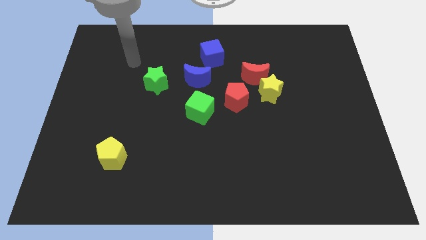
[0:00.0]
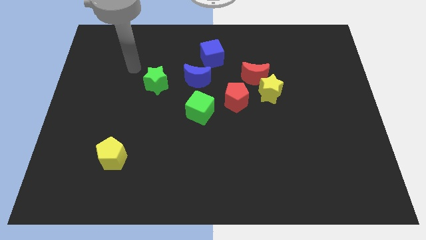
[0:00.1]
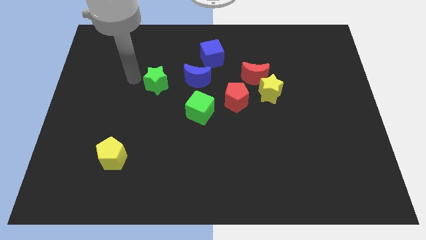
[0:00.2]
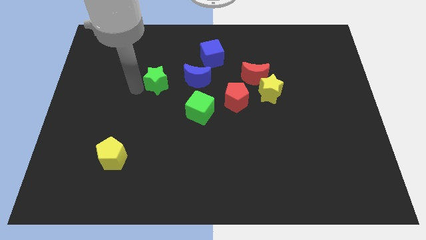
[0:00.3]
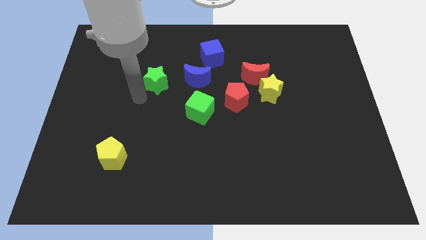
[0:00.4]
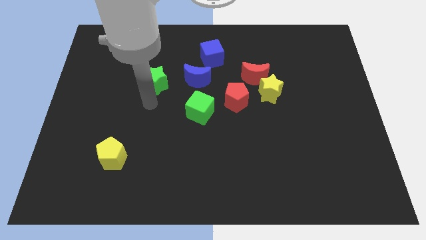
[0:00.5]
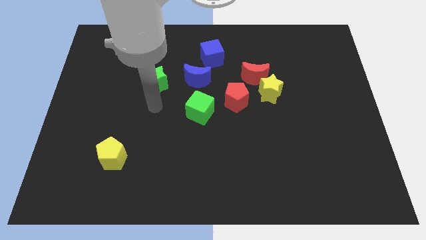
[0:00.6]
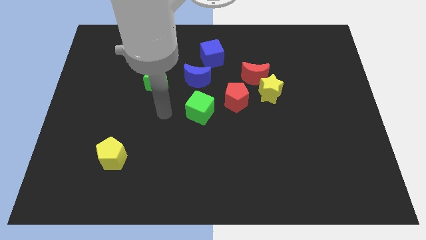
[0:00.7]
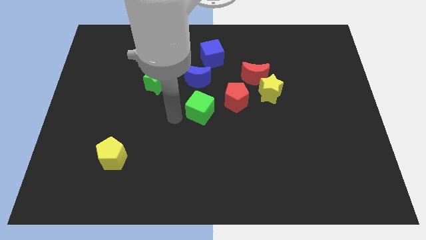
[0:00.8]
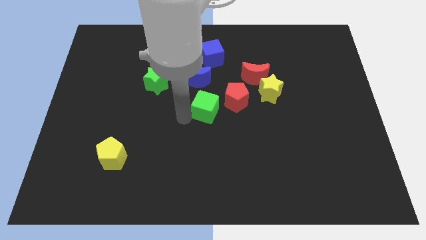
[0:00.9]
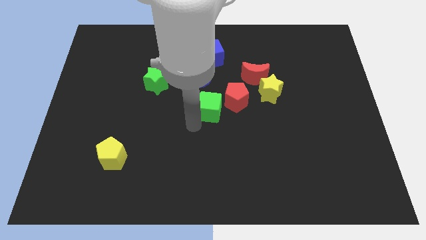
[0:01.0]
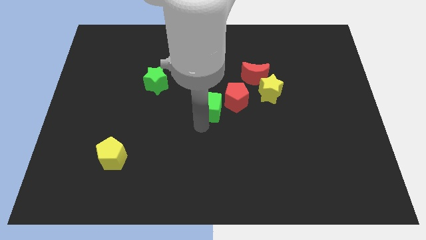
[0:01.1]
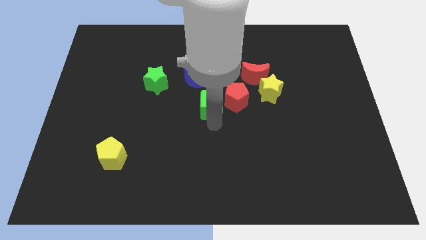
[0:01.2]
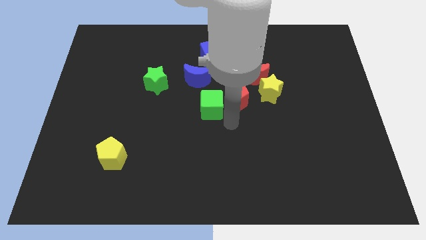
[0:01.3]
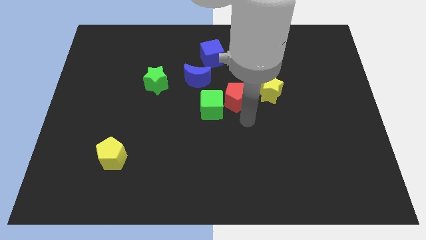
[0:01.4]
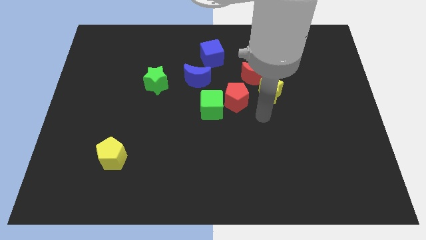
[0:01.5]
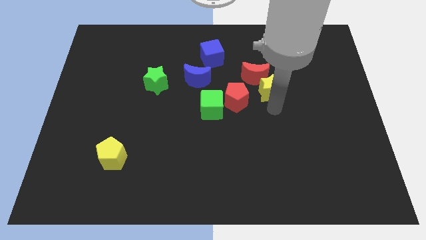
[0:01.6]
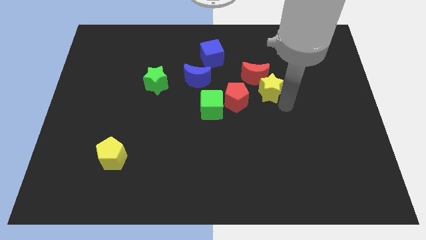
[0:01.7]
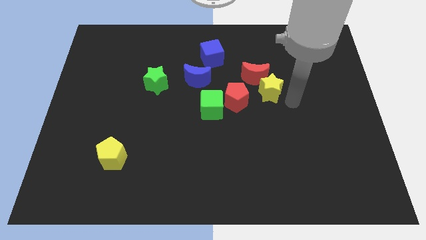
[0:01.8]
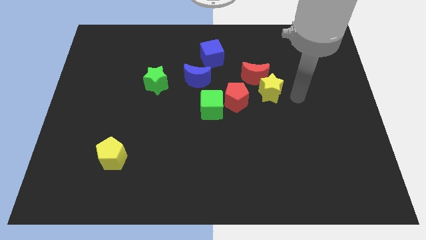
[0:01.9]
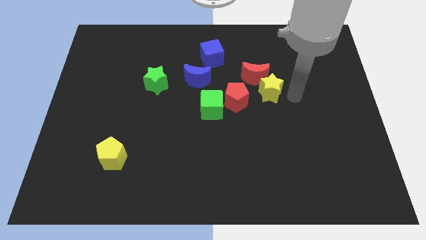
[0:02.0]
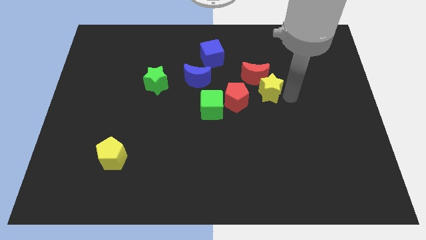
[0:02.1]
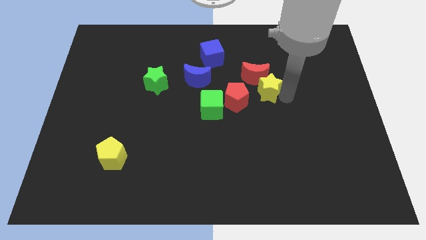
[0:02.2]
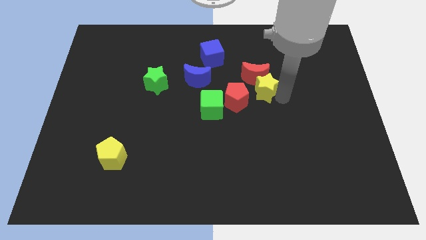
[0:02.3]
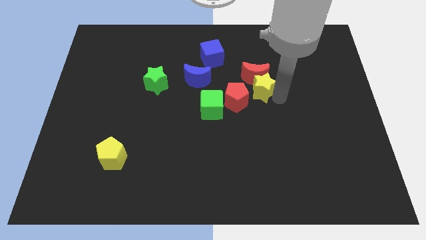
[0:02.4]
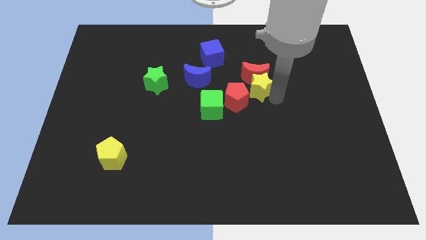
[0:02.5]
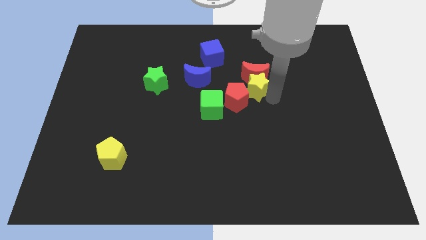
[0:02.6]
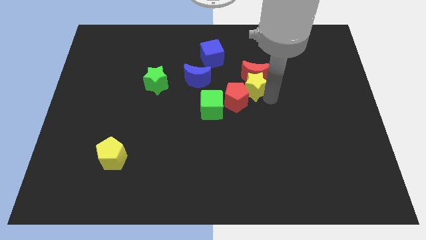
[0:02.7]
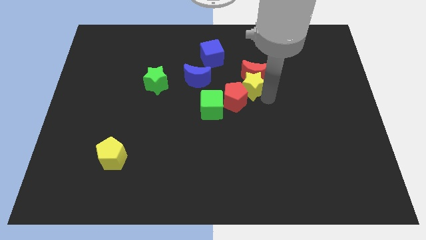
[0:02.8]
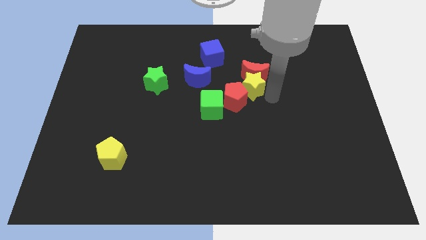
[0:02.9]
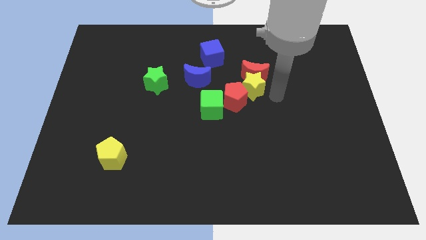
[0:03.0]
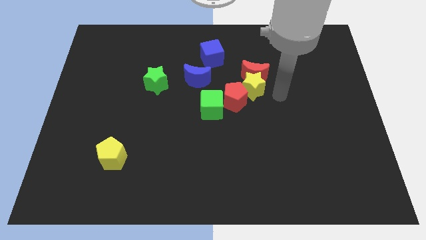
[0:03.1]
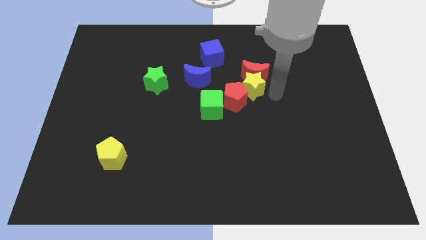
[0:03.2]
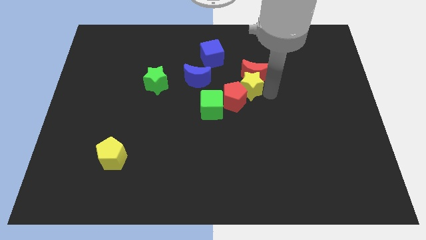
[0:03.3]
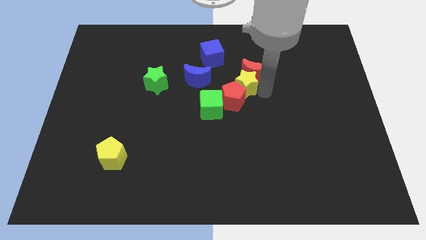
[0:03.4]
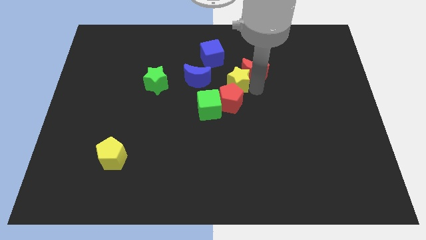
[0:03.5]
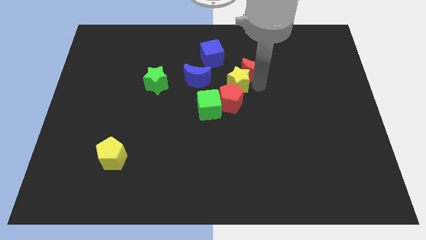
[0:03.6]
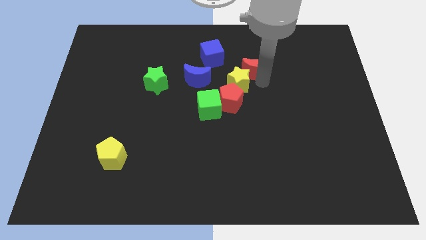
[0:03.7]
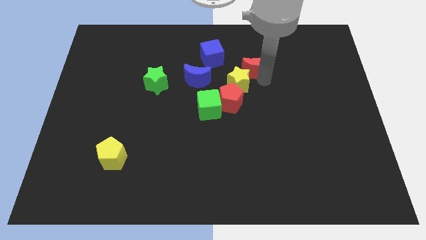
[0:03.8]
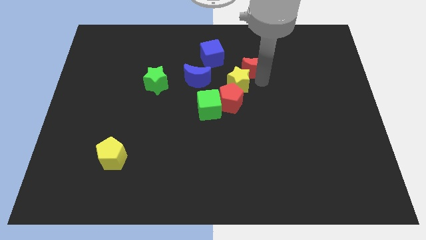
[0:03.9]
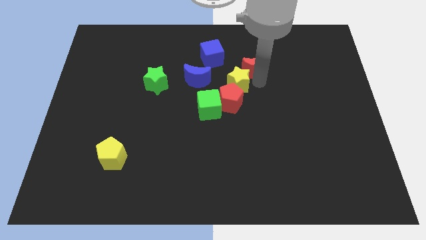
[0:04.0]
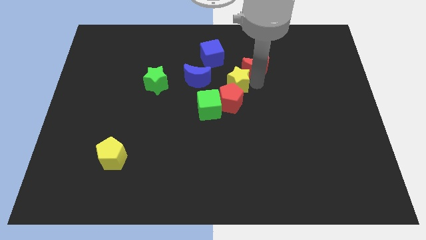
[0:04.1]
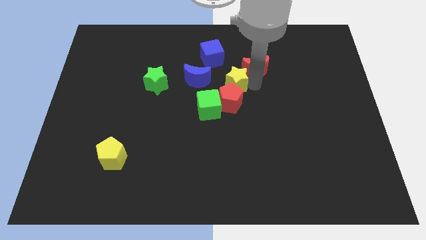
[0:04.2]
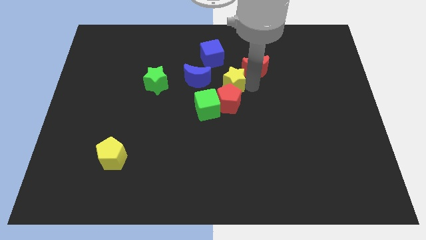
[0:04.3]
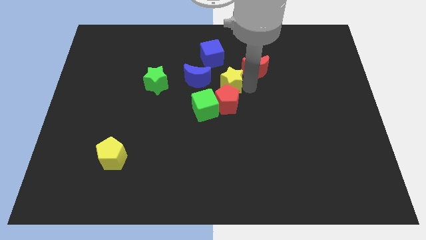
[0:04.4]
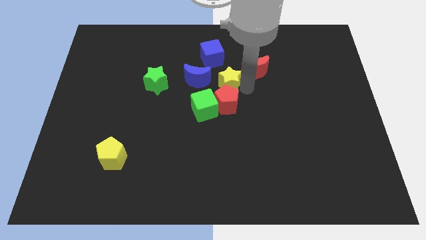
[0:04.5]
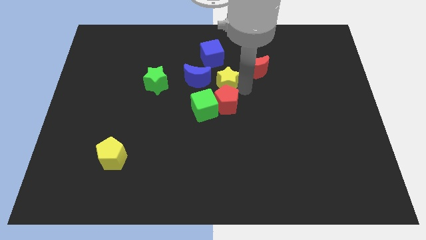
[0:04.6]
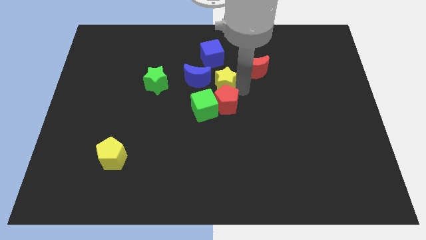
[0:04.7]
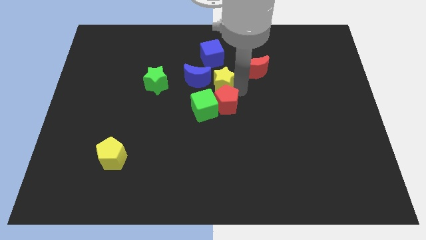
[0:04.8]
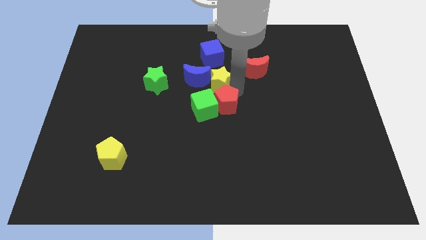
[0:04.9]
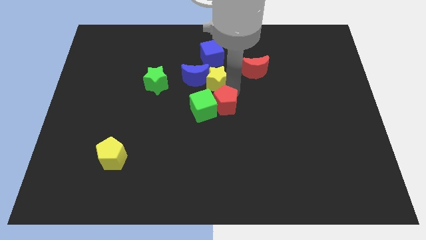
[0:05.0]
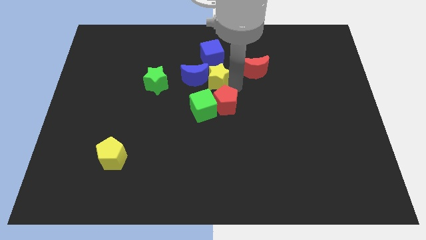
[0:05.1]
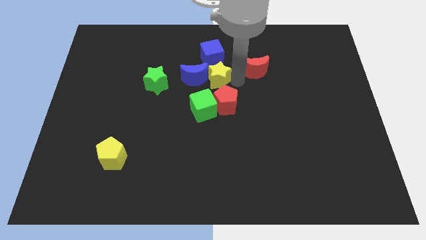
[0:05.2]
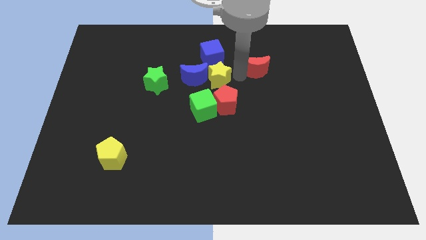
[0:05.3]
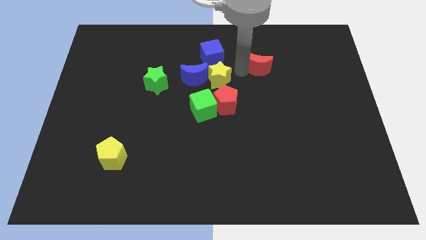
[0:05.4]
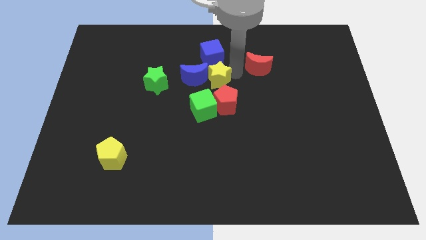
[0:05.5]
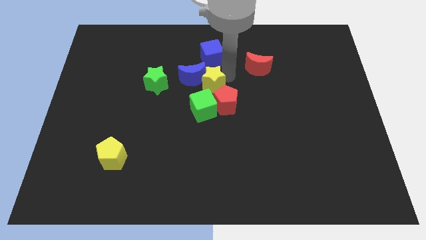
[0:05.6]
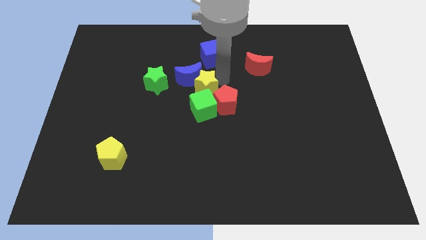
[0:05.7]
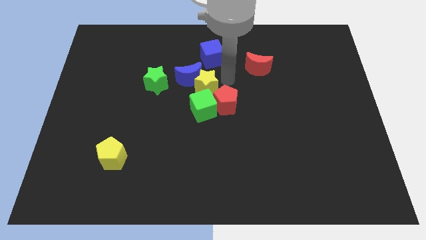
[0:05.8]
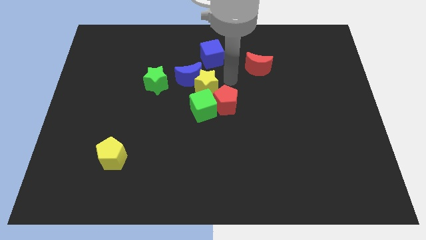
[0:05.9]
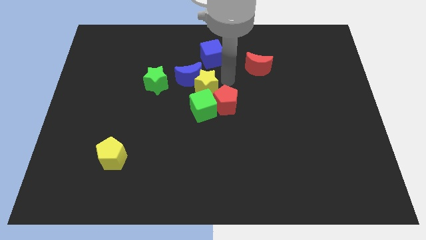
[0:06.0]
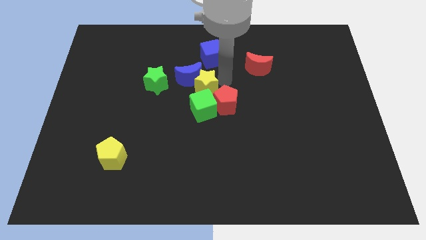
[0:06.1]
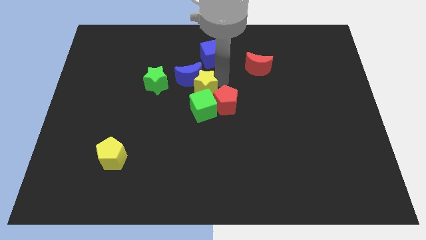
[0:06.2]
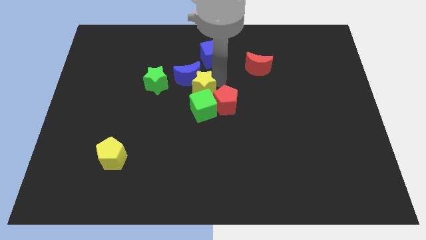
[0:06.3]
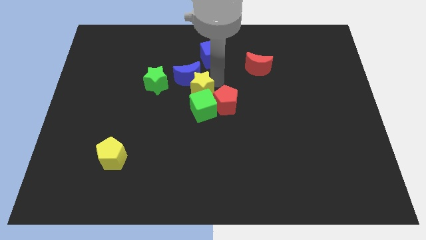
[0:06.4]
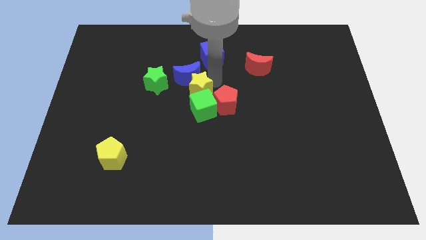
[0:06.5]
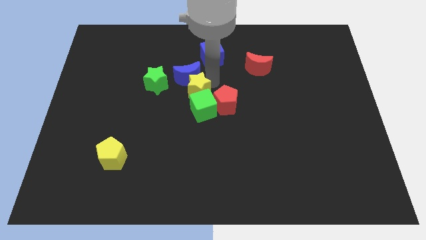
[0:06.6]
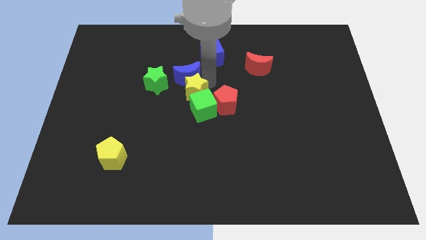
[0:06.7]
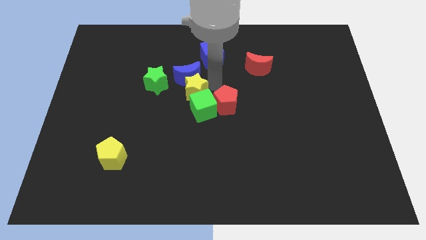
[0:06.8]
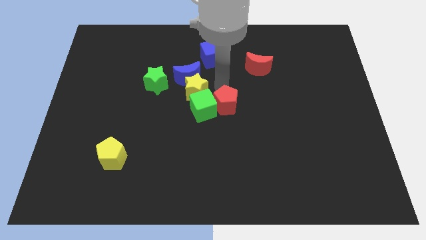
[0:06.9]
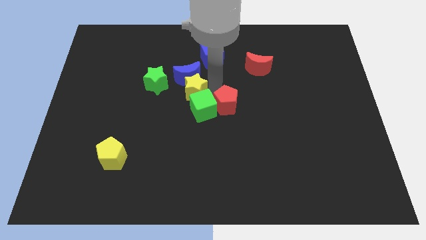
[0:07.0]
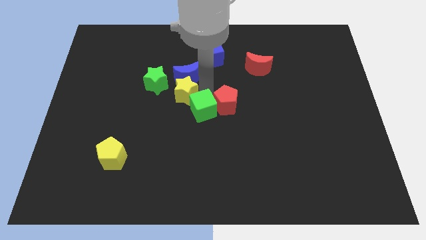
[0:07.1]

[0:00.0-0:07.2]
slide the yellow star to the left

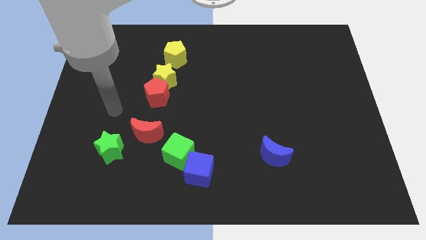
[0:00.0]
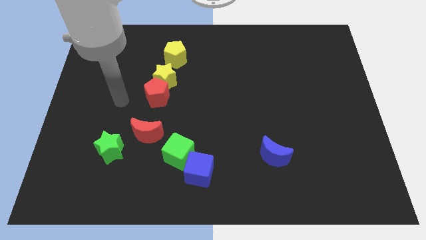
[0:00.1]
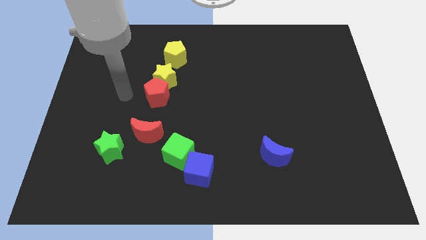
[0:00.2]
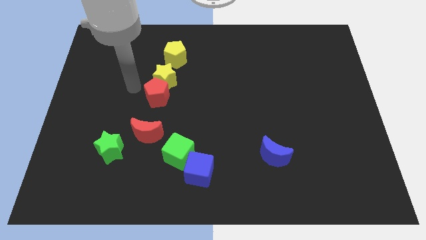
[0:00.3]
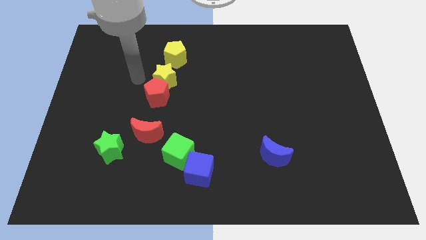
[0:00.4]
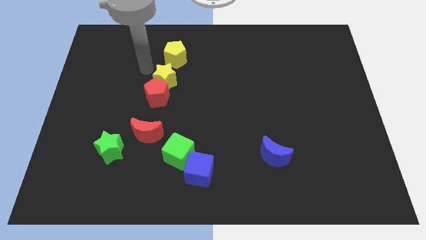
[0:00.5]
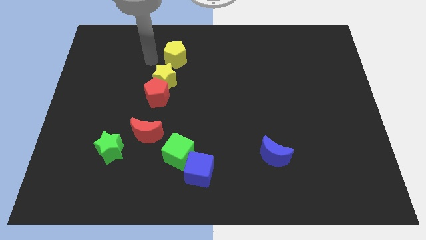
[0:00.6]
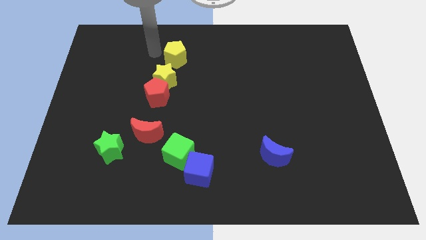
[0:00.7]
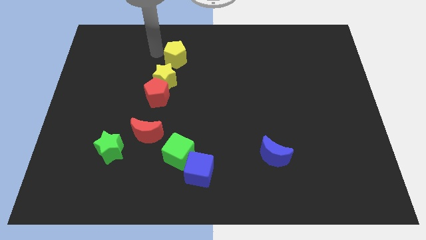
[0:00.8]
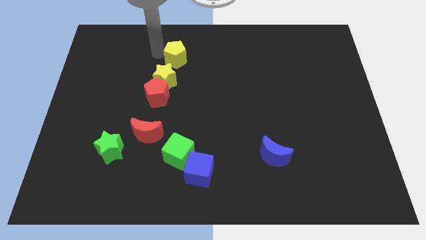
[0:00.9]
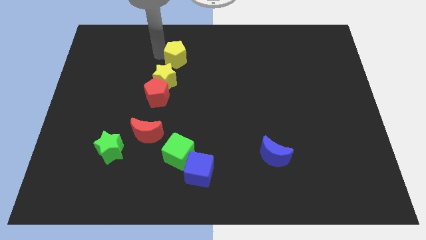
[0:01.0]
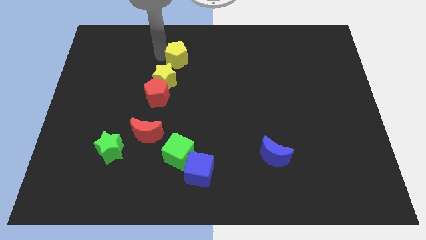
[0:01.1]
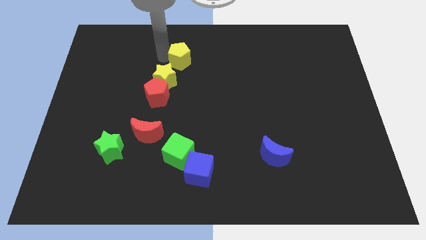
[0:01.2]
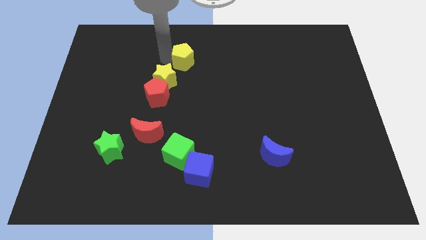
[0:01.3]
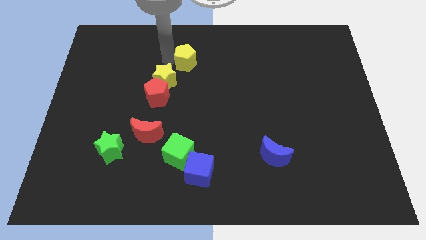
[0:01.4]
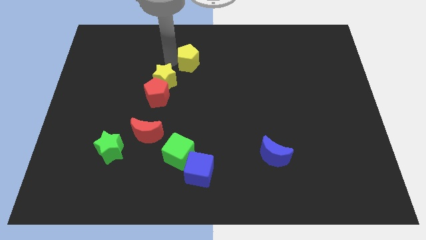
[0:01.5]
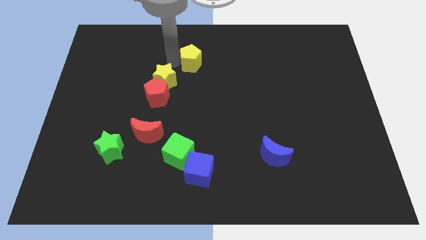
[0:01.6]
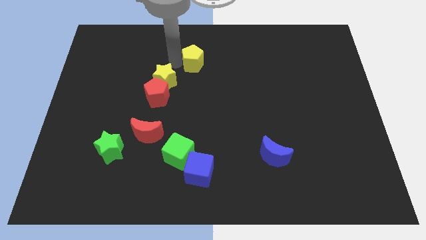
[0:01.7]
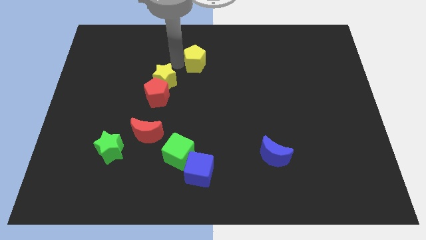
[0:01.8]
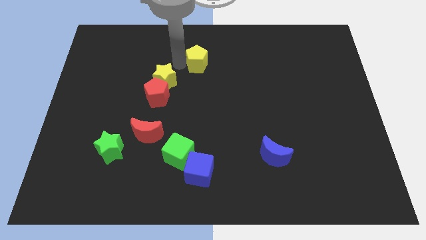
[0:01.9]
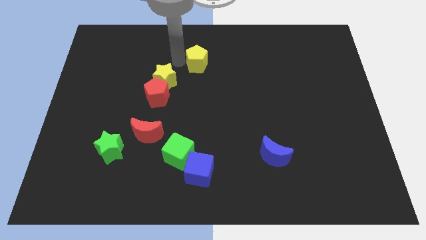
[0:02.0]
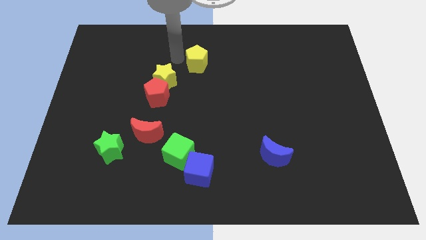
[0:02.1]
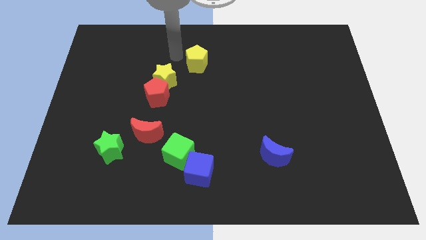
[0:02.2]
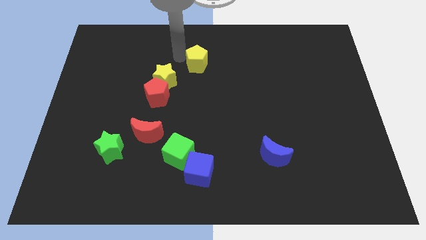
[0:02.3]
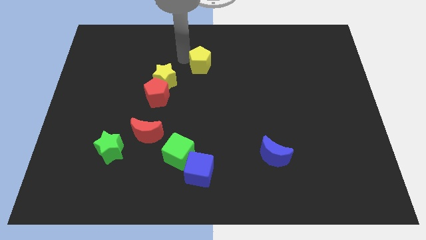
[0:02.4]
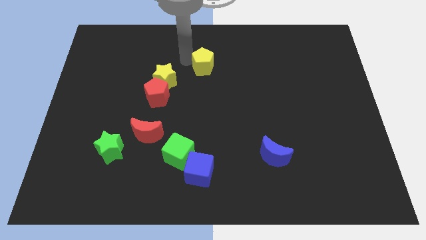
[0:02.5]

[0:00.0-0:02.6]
move the yellow pentagon right slightly
